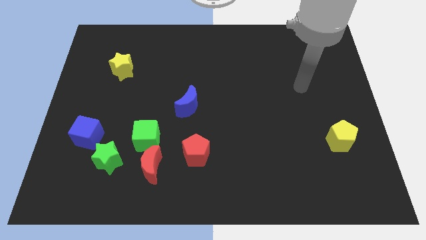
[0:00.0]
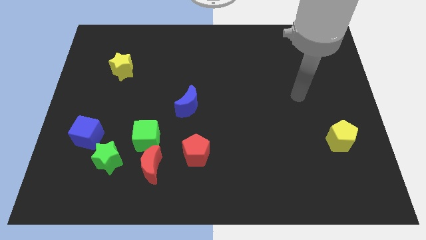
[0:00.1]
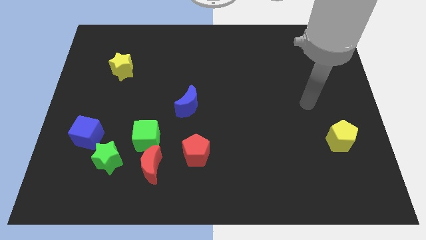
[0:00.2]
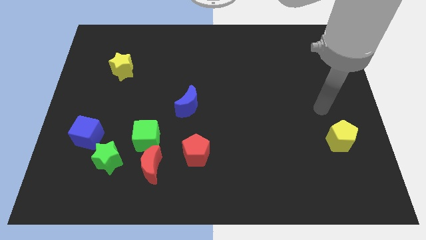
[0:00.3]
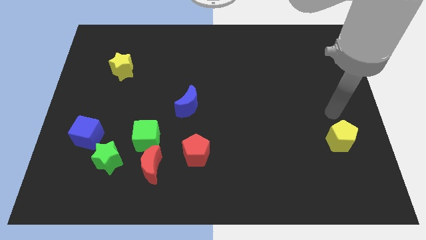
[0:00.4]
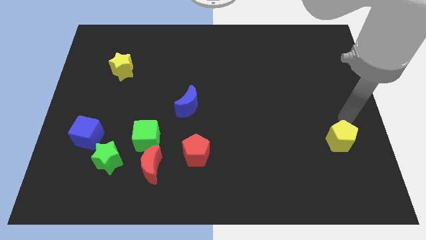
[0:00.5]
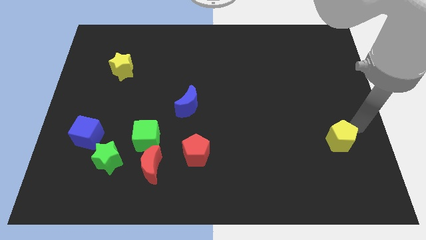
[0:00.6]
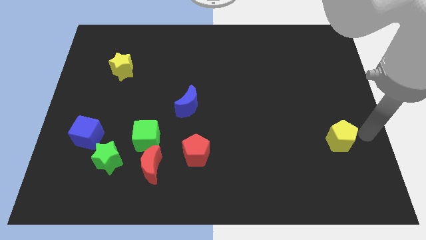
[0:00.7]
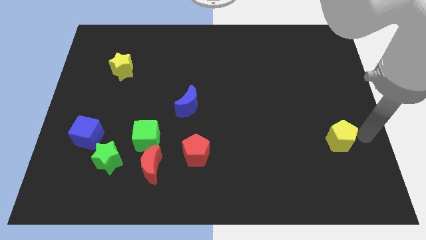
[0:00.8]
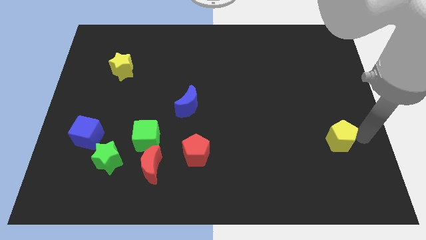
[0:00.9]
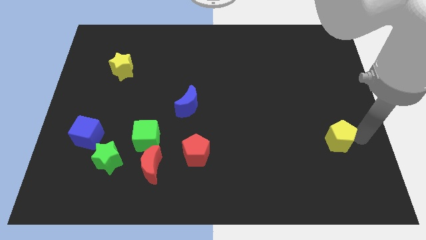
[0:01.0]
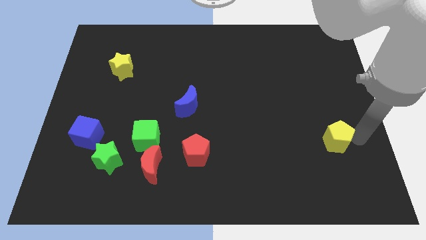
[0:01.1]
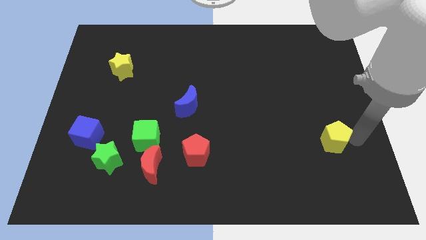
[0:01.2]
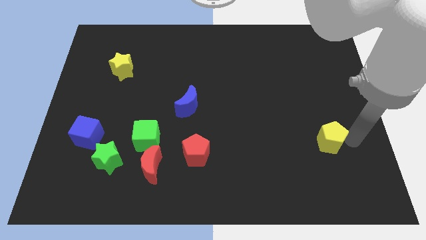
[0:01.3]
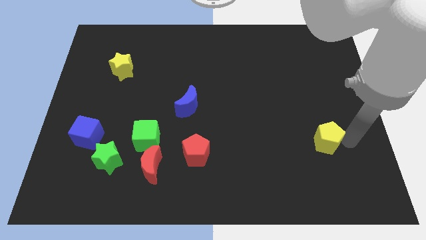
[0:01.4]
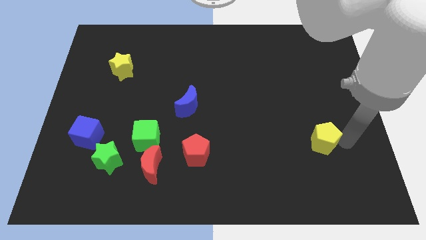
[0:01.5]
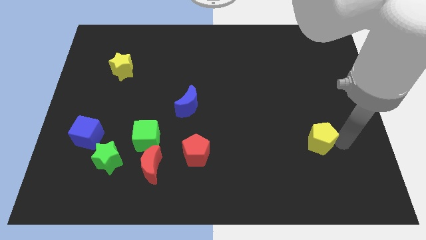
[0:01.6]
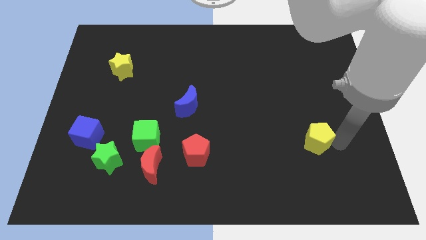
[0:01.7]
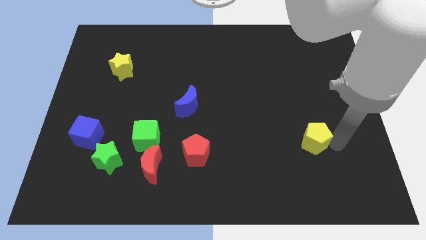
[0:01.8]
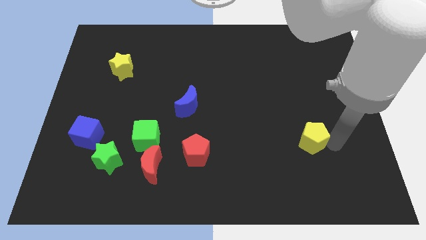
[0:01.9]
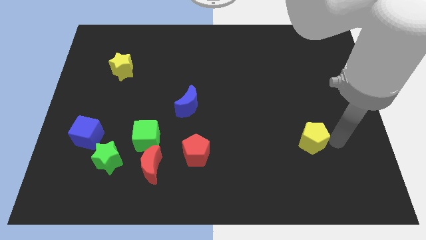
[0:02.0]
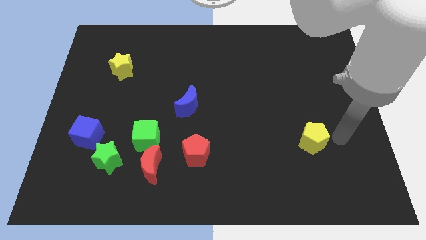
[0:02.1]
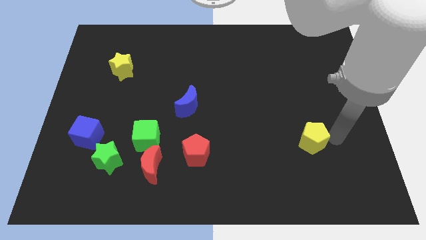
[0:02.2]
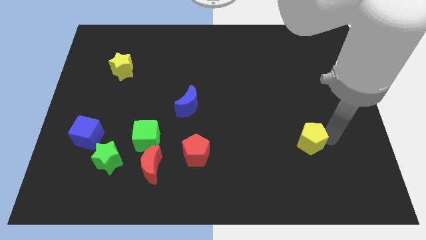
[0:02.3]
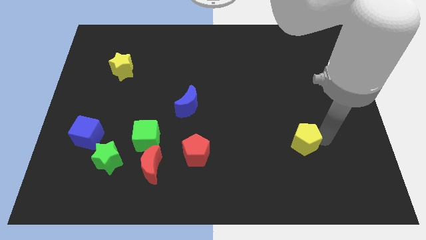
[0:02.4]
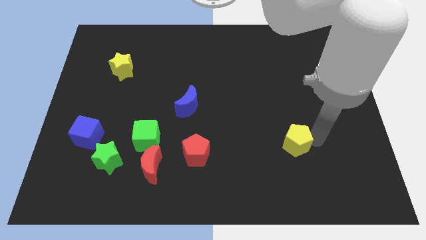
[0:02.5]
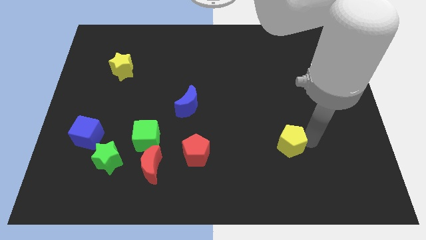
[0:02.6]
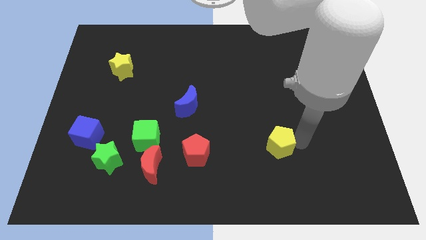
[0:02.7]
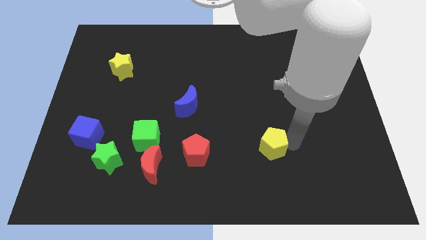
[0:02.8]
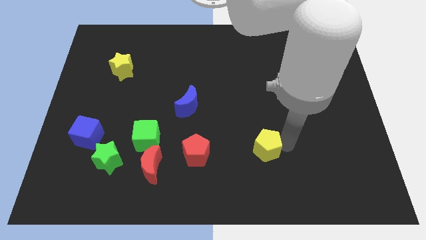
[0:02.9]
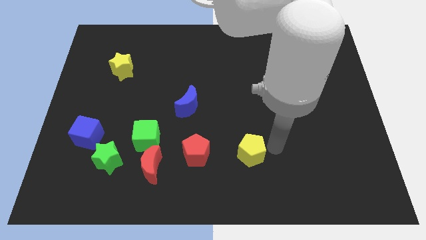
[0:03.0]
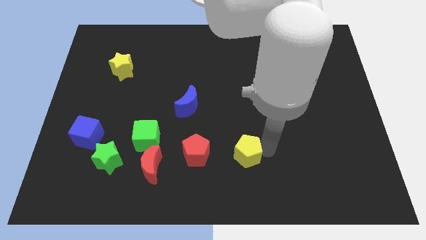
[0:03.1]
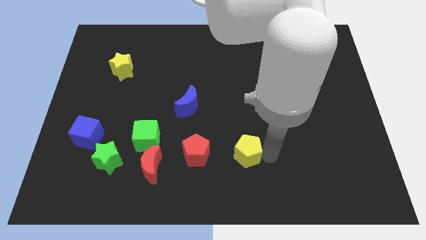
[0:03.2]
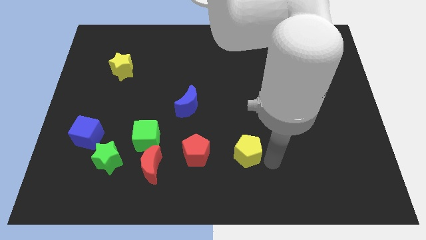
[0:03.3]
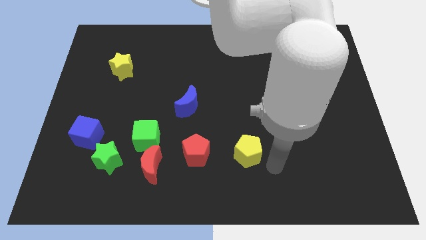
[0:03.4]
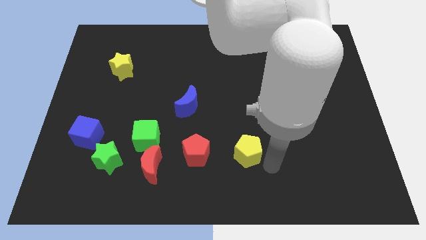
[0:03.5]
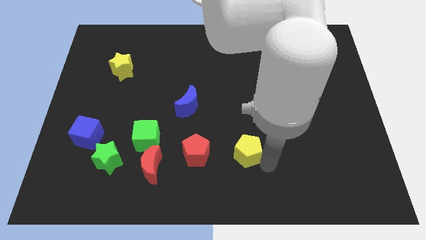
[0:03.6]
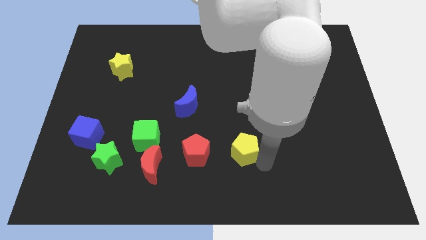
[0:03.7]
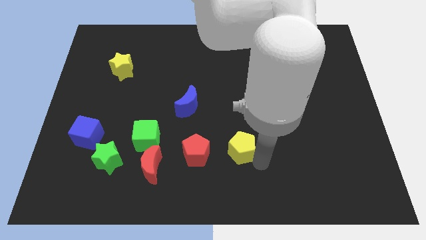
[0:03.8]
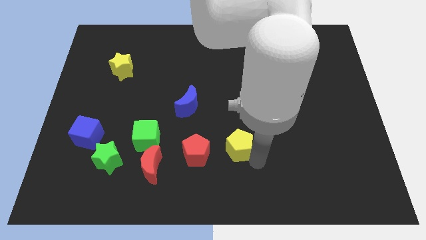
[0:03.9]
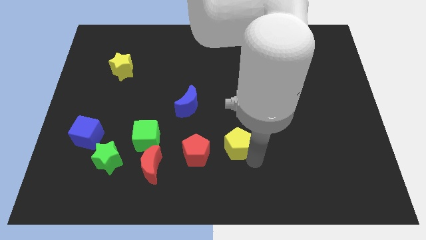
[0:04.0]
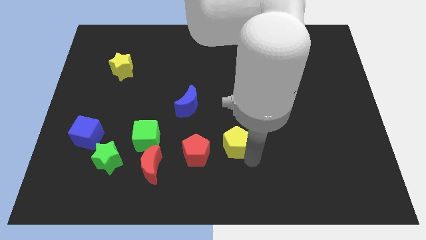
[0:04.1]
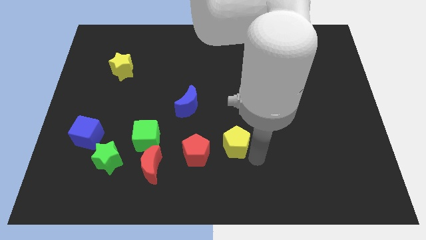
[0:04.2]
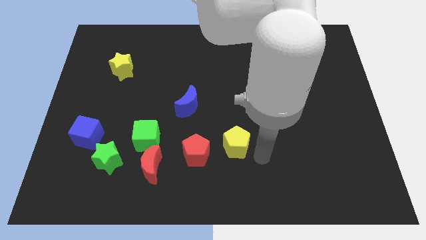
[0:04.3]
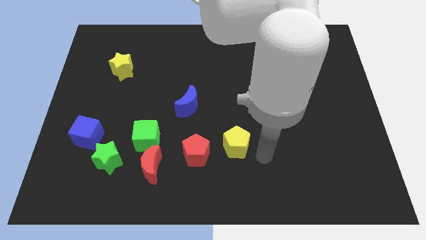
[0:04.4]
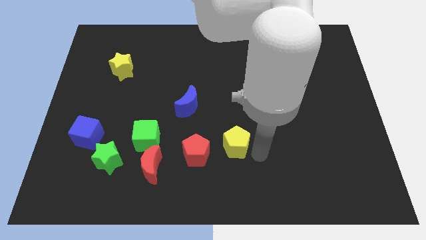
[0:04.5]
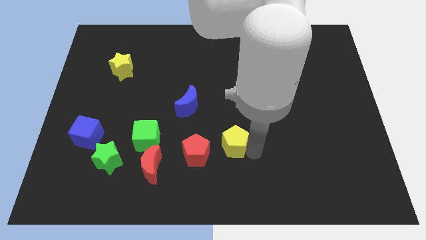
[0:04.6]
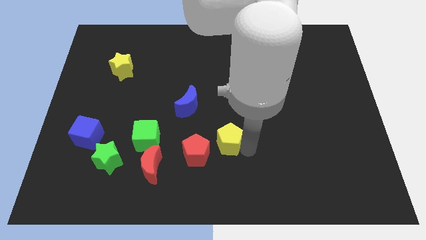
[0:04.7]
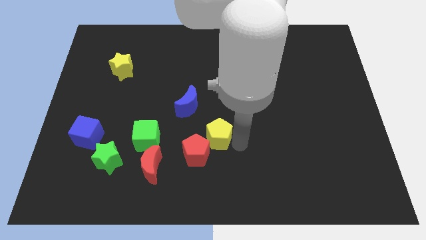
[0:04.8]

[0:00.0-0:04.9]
move the yellow pentagon just right of the green cube

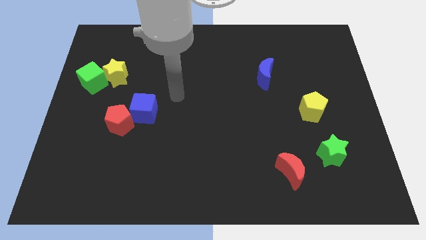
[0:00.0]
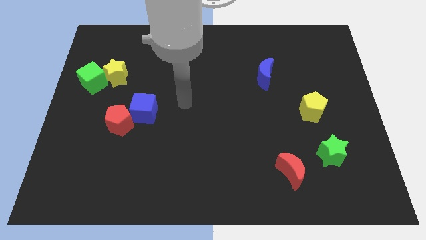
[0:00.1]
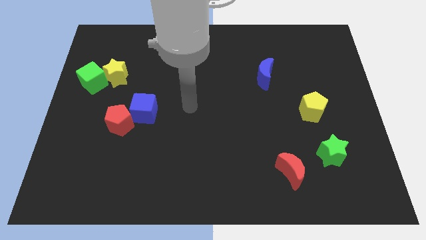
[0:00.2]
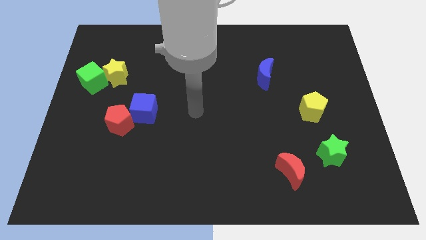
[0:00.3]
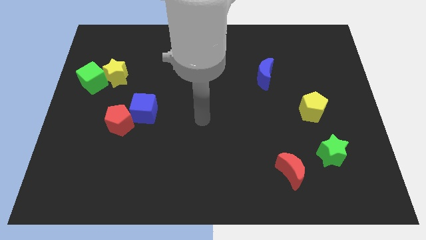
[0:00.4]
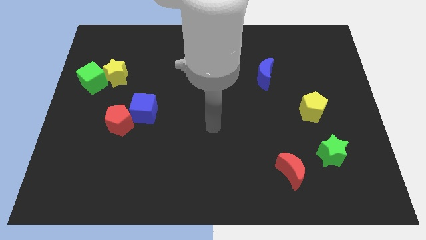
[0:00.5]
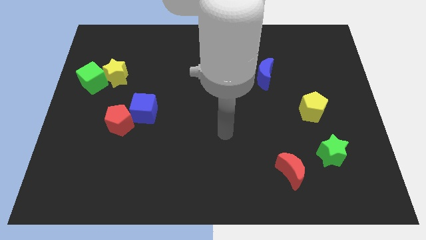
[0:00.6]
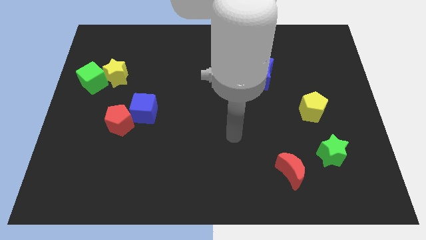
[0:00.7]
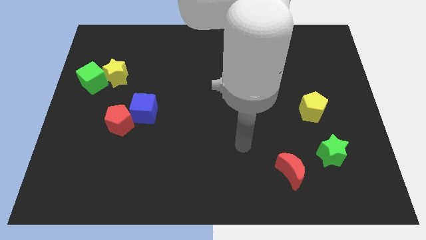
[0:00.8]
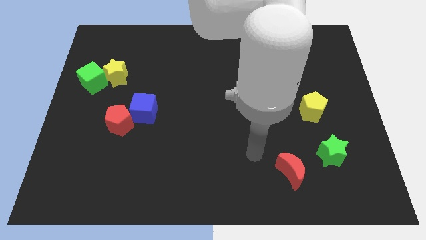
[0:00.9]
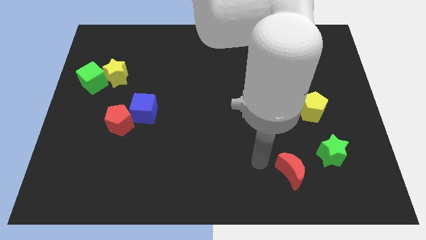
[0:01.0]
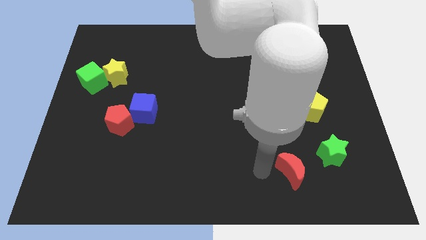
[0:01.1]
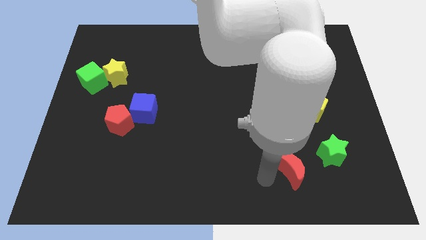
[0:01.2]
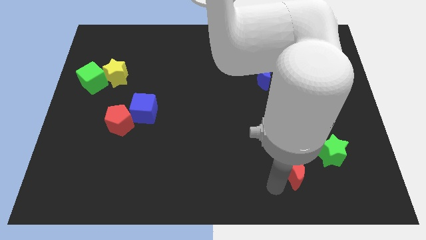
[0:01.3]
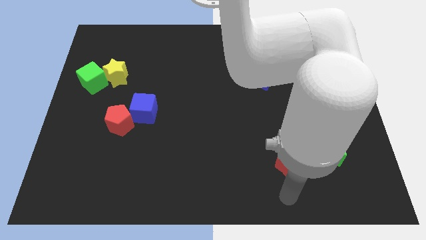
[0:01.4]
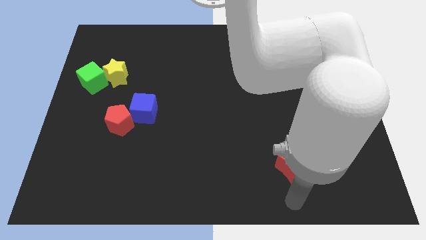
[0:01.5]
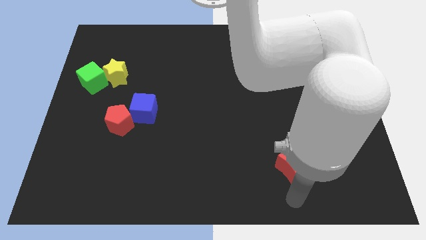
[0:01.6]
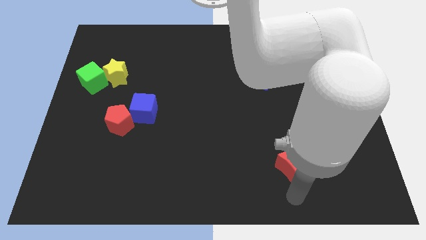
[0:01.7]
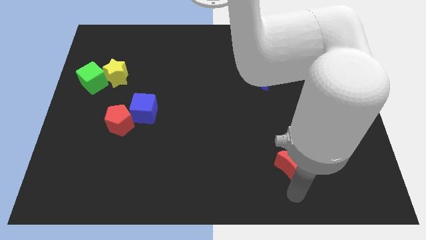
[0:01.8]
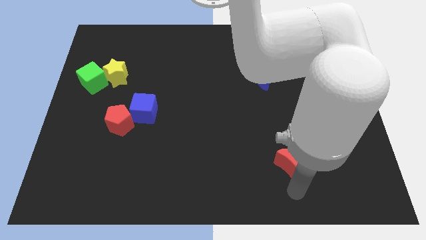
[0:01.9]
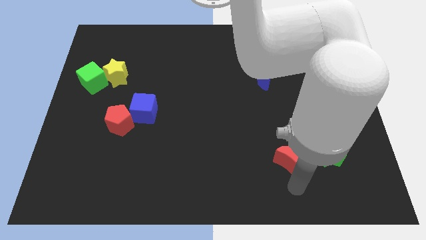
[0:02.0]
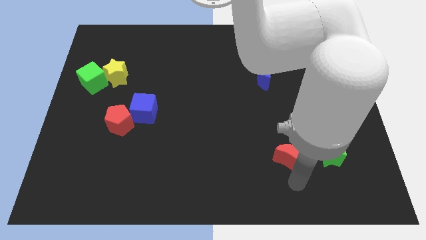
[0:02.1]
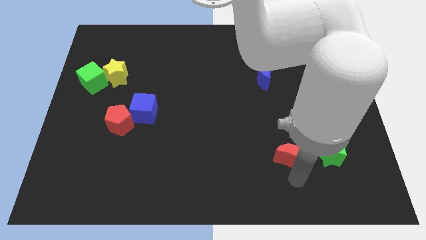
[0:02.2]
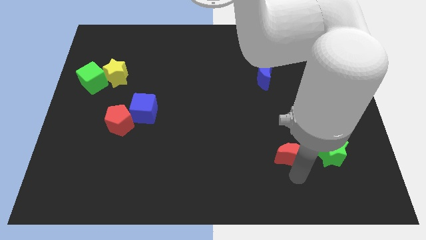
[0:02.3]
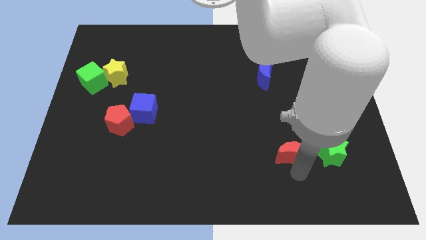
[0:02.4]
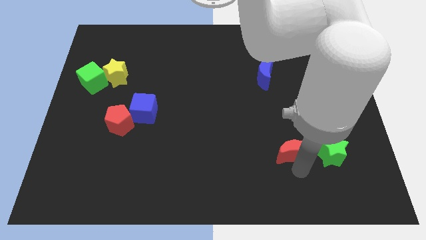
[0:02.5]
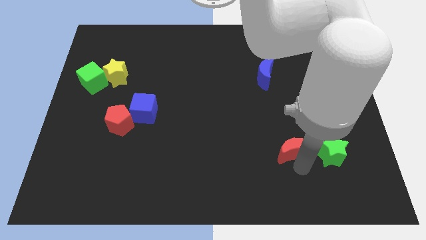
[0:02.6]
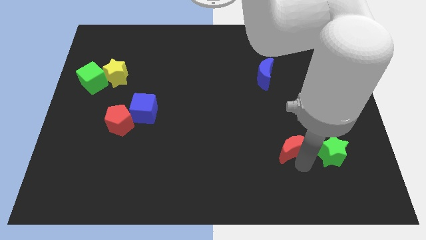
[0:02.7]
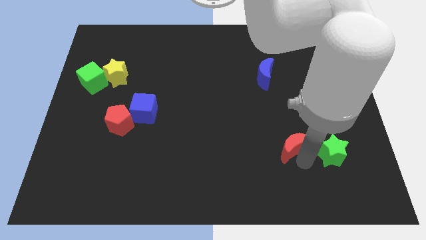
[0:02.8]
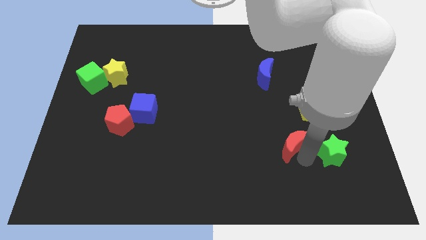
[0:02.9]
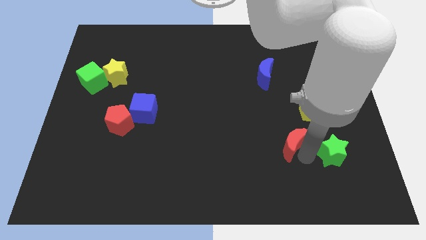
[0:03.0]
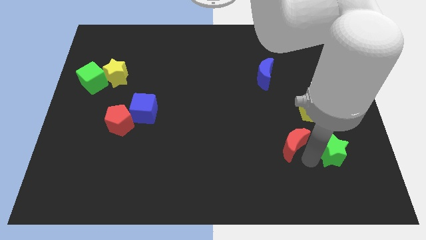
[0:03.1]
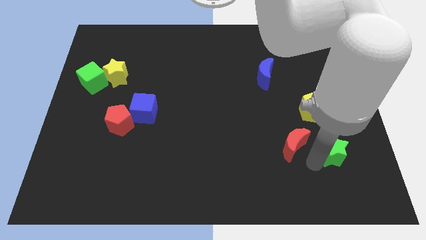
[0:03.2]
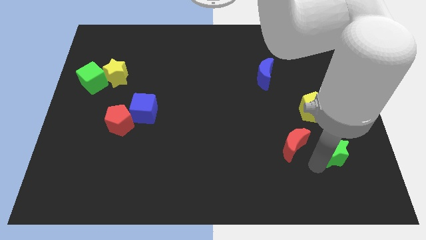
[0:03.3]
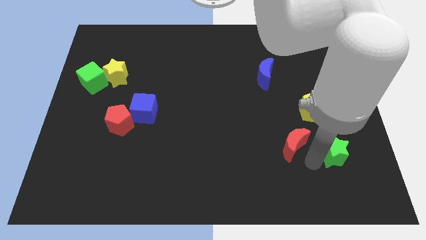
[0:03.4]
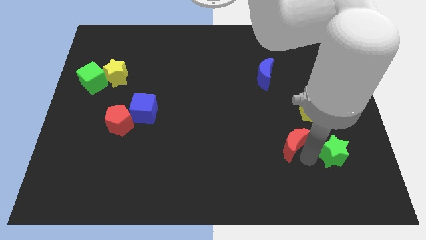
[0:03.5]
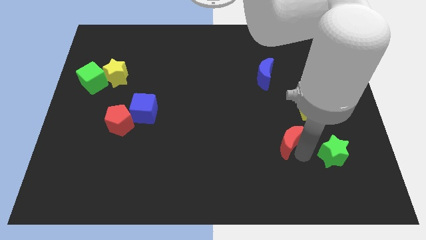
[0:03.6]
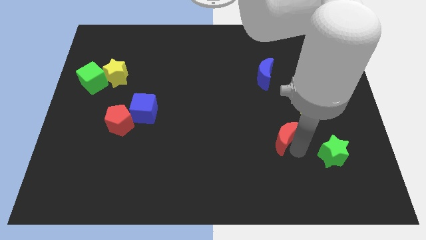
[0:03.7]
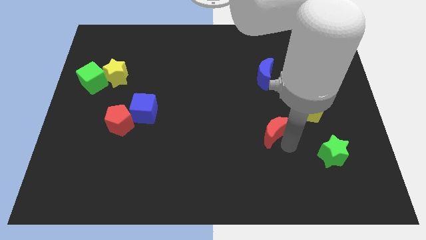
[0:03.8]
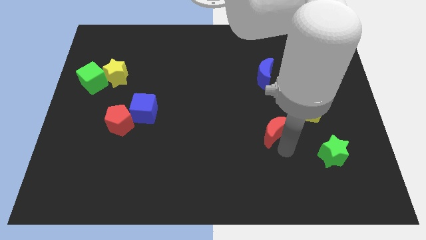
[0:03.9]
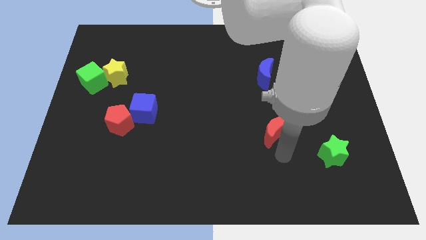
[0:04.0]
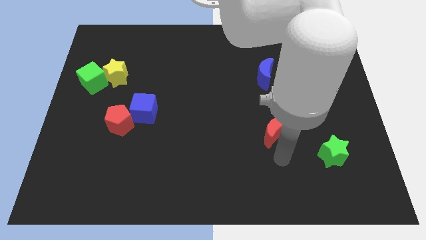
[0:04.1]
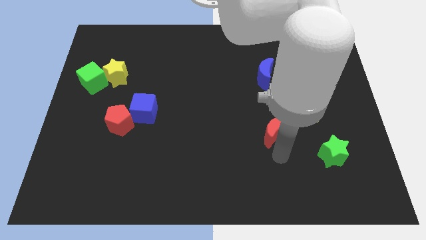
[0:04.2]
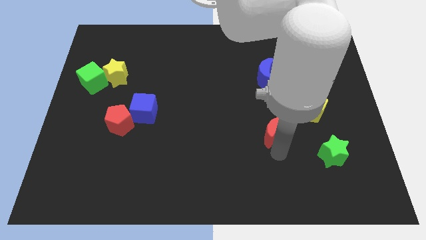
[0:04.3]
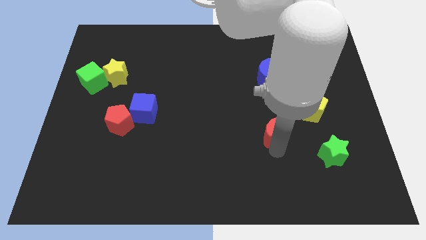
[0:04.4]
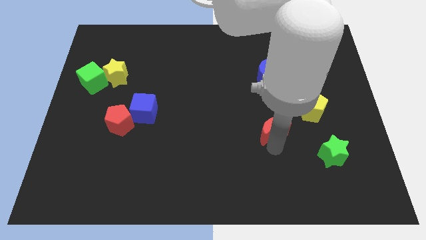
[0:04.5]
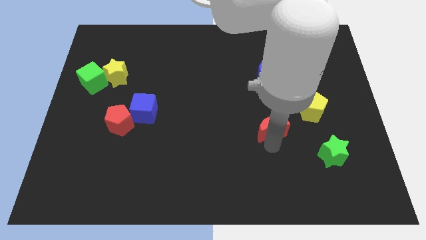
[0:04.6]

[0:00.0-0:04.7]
put the red moon to the bottom of the blue moon
